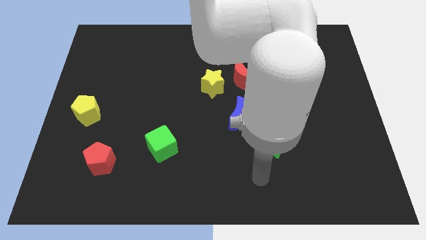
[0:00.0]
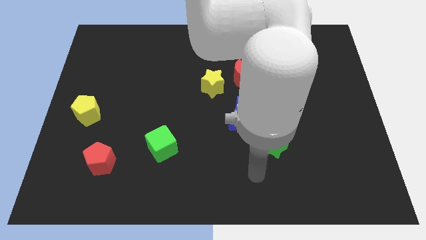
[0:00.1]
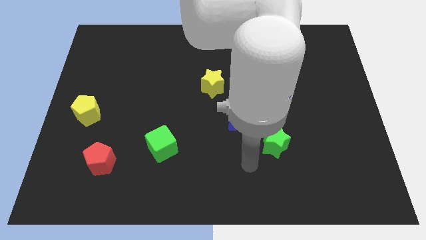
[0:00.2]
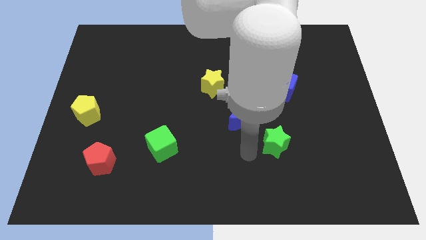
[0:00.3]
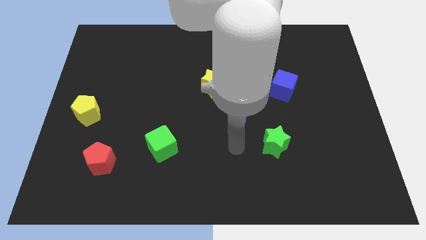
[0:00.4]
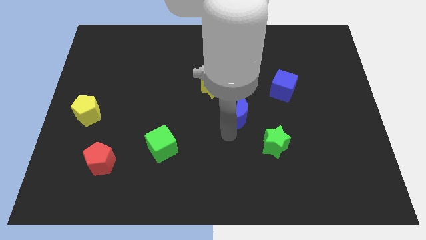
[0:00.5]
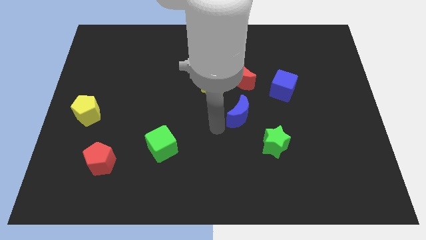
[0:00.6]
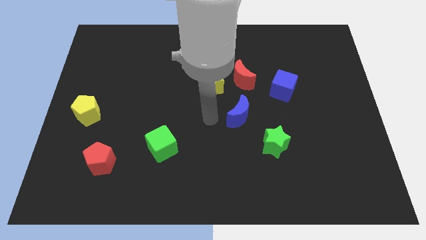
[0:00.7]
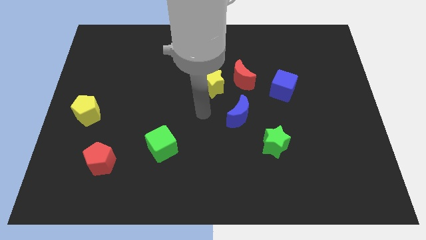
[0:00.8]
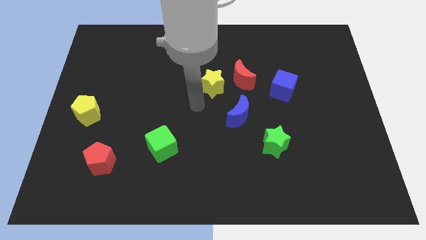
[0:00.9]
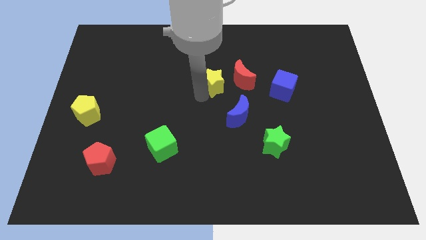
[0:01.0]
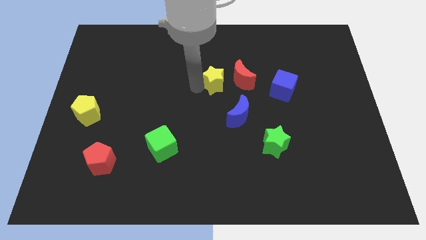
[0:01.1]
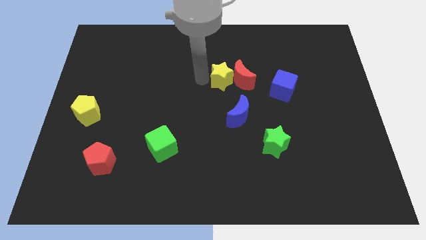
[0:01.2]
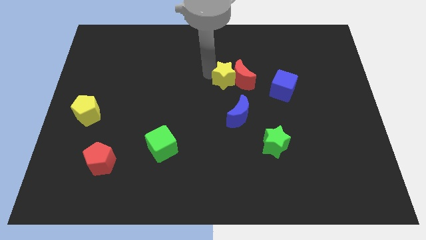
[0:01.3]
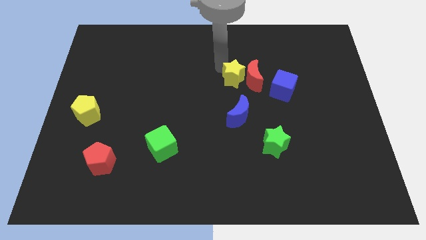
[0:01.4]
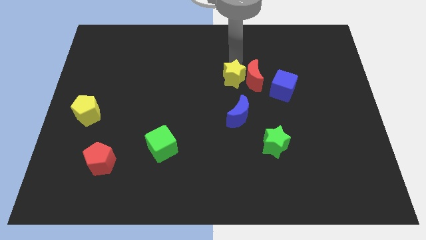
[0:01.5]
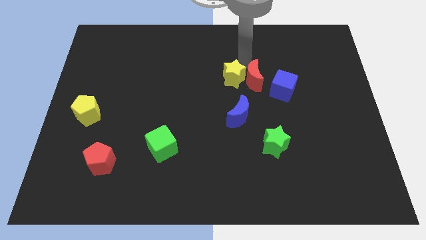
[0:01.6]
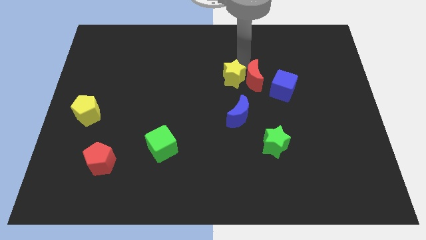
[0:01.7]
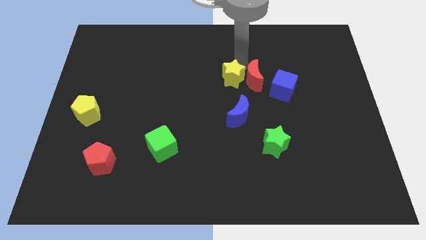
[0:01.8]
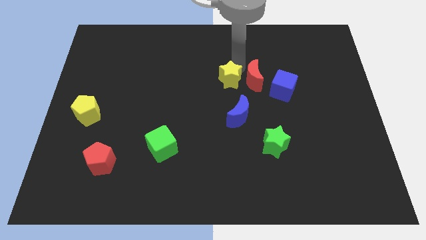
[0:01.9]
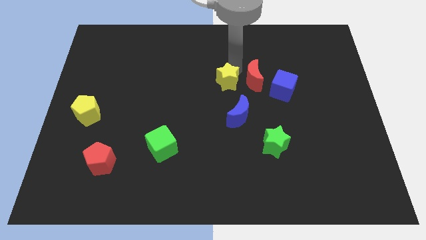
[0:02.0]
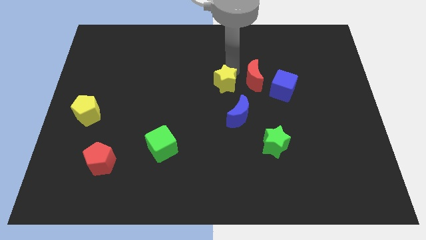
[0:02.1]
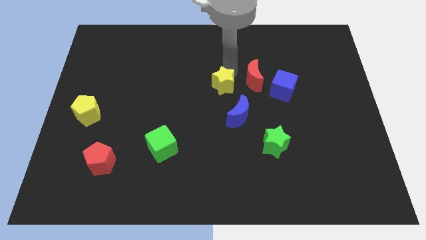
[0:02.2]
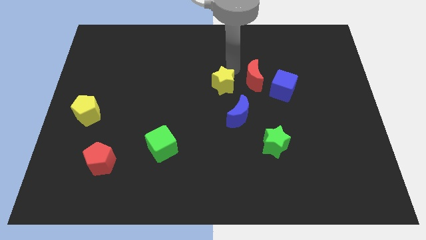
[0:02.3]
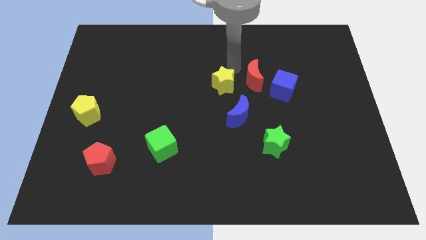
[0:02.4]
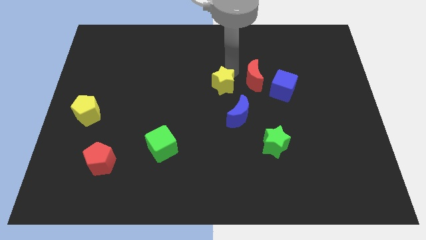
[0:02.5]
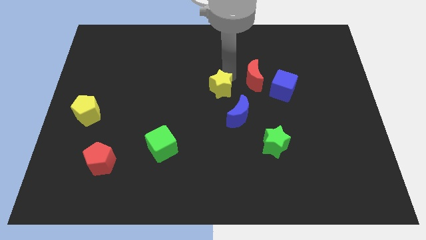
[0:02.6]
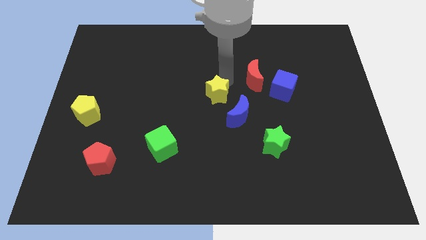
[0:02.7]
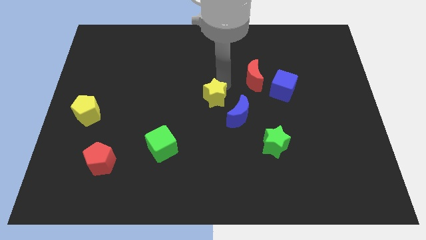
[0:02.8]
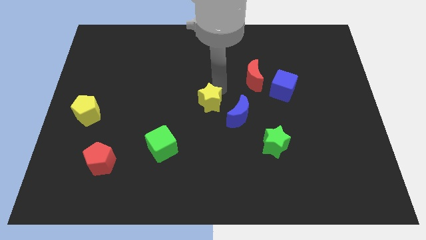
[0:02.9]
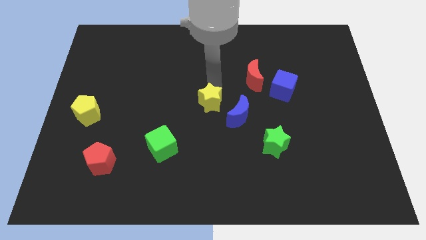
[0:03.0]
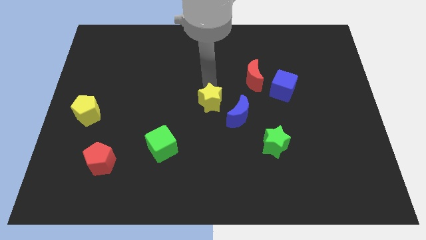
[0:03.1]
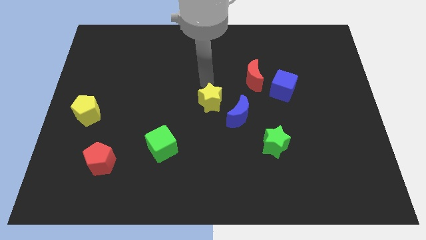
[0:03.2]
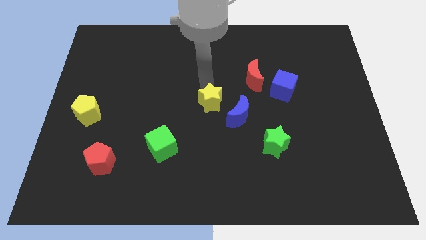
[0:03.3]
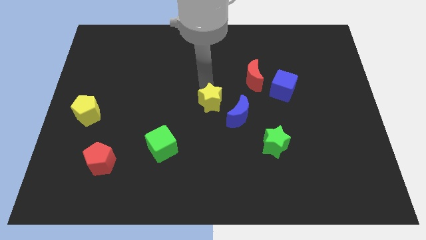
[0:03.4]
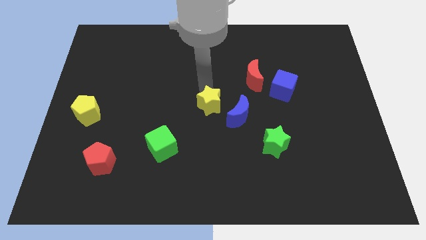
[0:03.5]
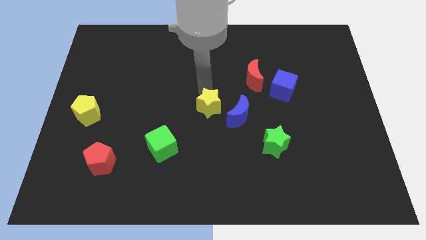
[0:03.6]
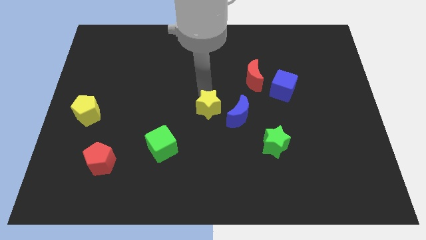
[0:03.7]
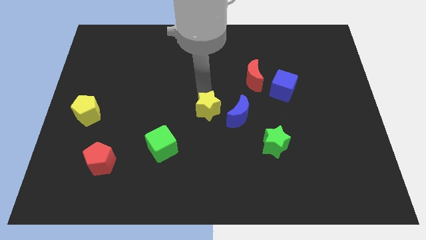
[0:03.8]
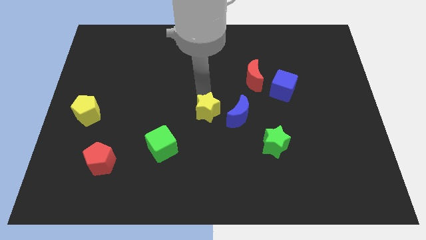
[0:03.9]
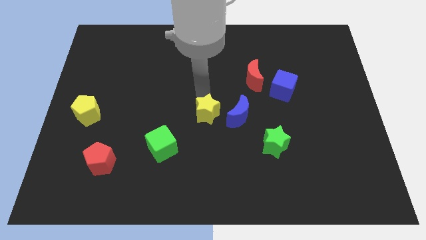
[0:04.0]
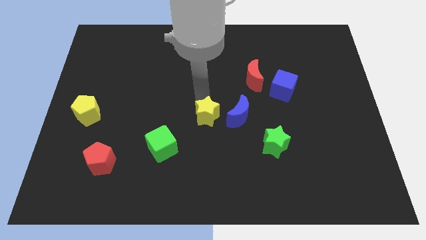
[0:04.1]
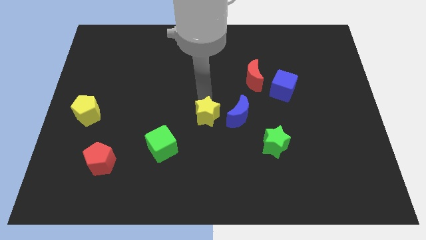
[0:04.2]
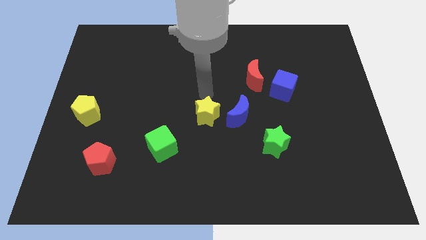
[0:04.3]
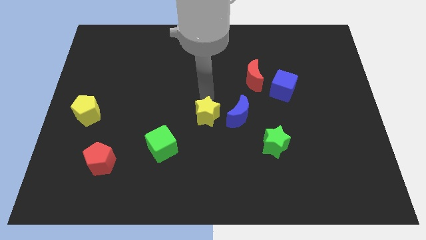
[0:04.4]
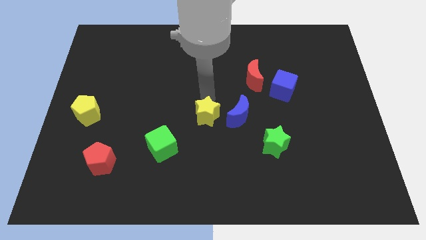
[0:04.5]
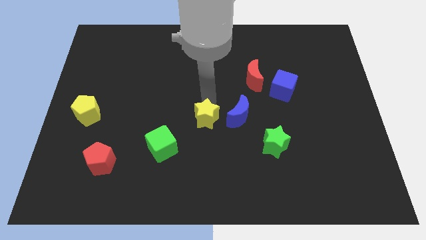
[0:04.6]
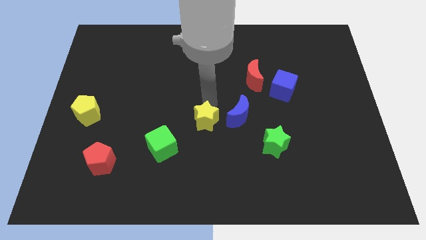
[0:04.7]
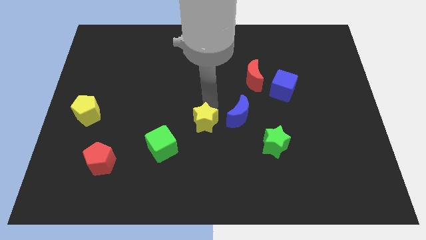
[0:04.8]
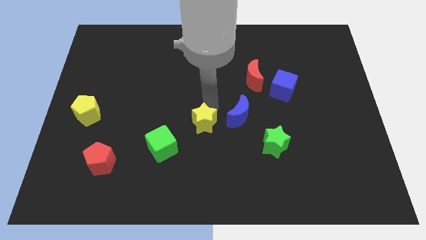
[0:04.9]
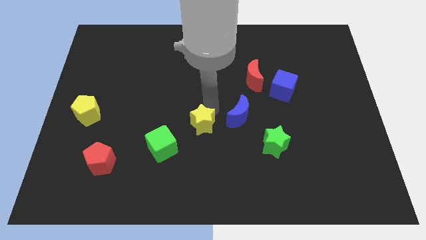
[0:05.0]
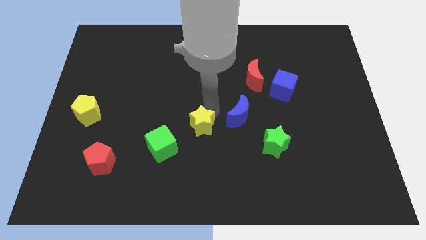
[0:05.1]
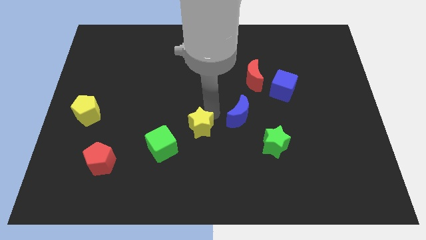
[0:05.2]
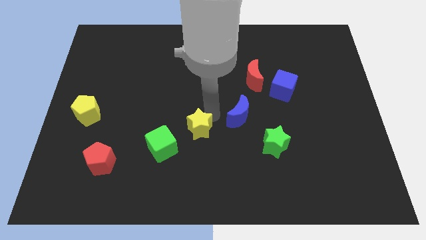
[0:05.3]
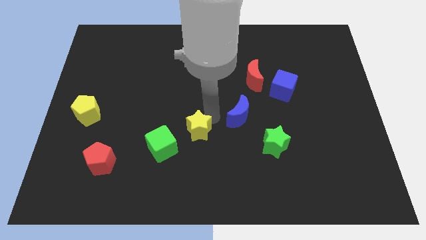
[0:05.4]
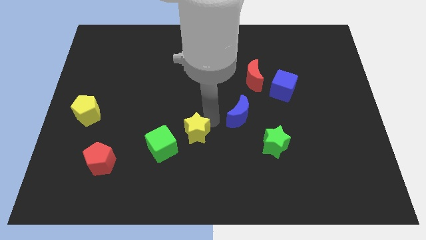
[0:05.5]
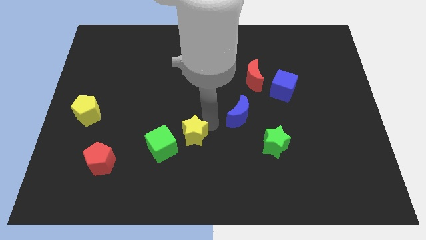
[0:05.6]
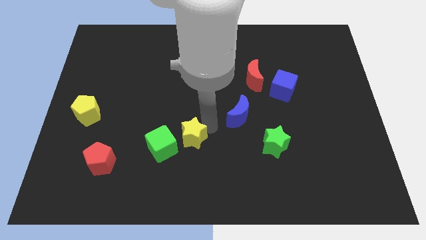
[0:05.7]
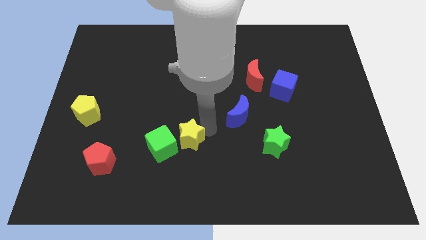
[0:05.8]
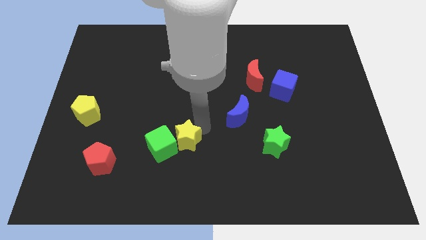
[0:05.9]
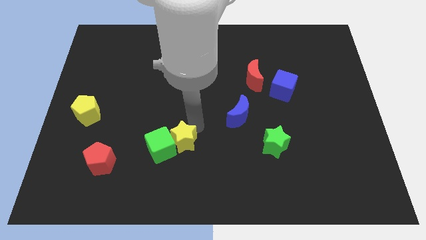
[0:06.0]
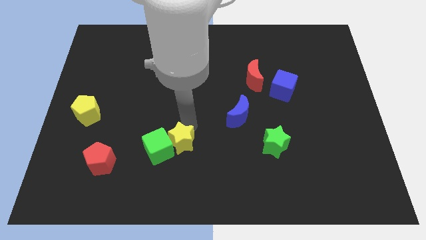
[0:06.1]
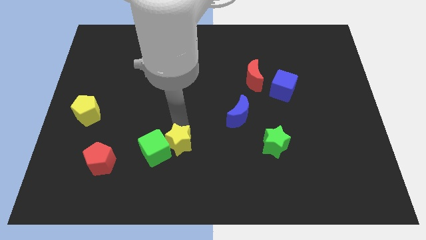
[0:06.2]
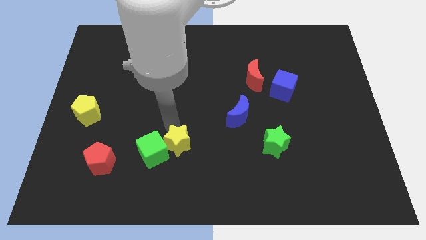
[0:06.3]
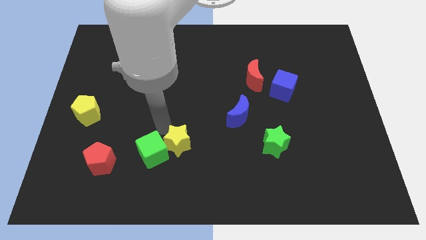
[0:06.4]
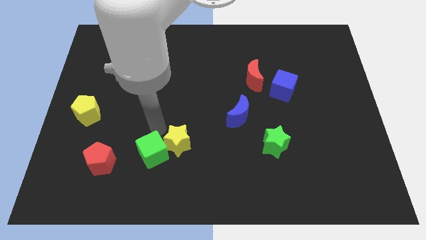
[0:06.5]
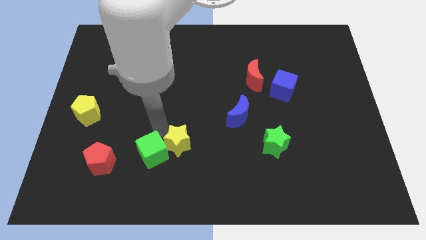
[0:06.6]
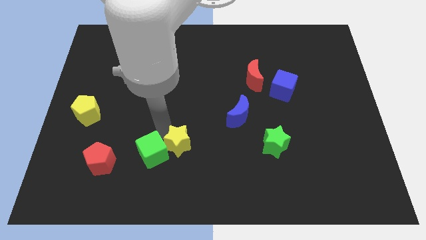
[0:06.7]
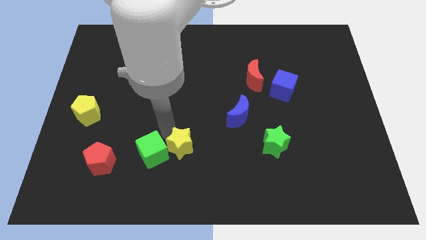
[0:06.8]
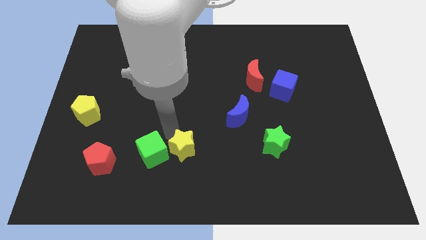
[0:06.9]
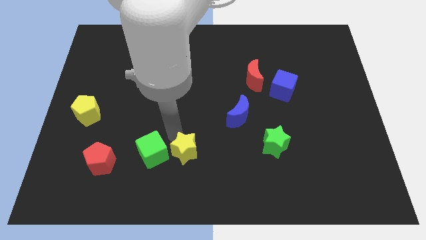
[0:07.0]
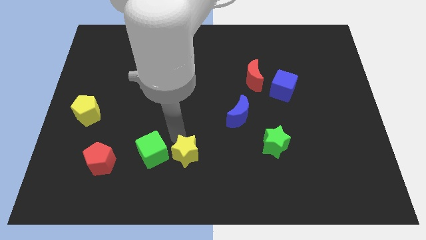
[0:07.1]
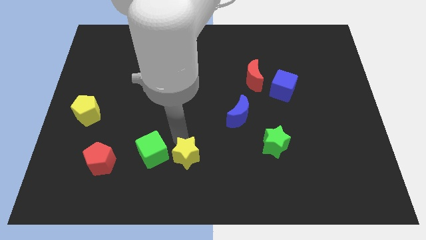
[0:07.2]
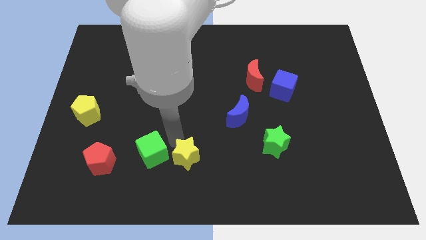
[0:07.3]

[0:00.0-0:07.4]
slide the yellow star to the bottom side

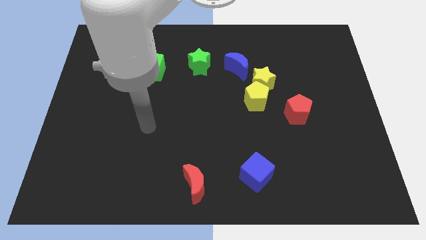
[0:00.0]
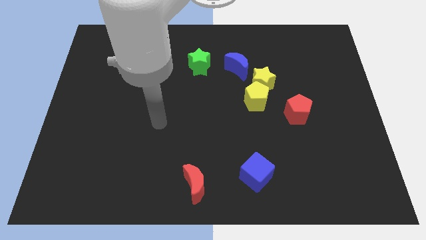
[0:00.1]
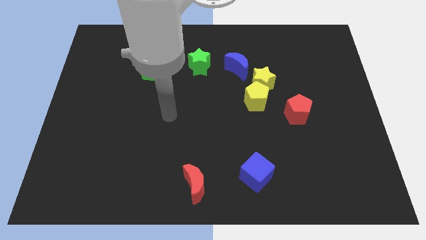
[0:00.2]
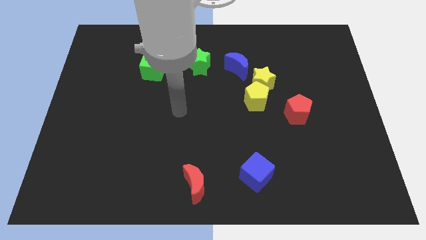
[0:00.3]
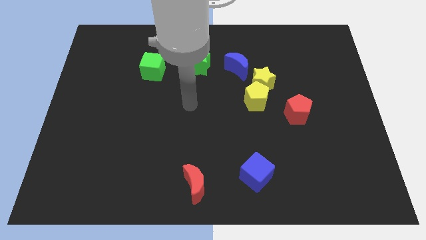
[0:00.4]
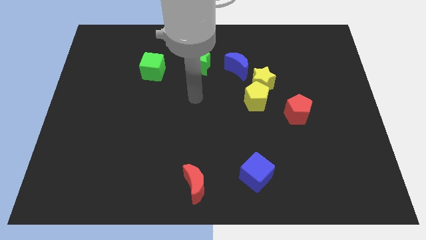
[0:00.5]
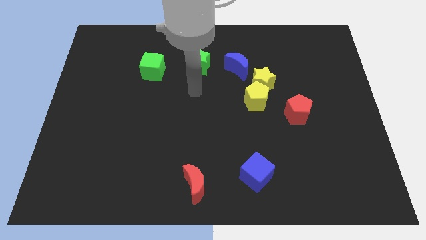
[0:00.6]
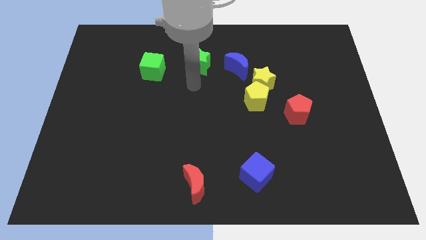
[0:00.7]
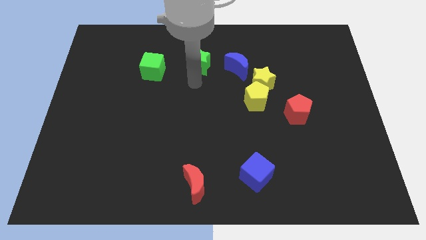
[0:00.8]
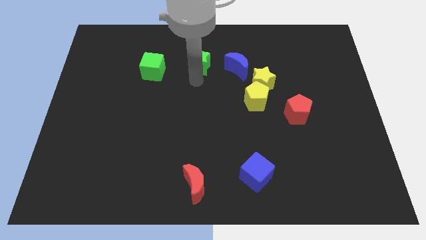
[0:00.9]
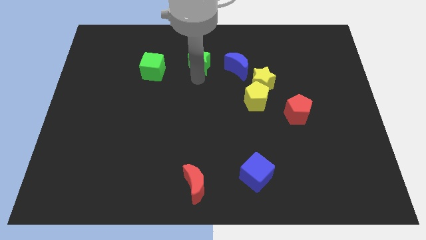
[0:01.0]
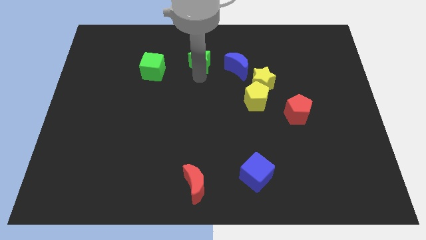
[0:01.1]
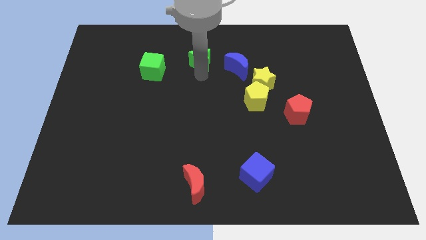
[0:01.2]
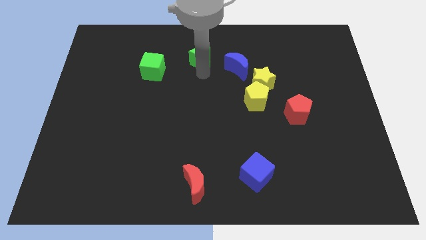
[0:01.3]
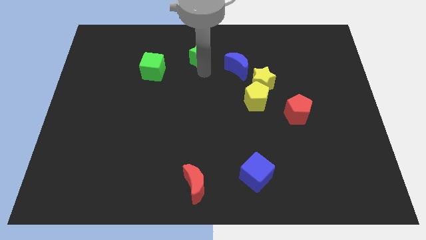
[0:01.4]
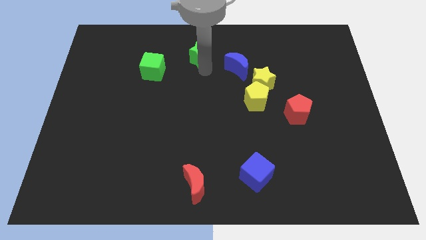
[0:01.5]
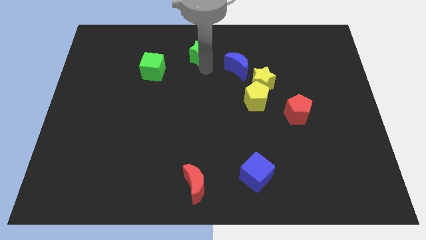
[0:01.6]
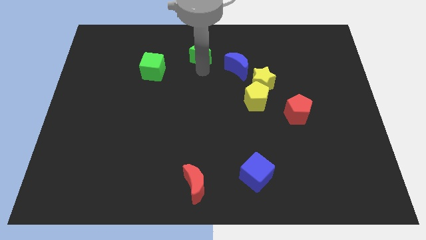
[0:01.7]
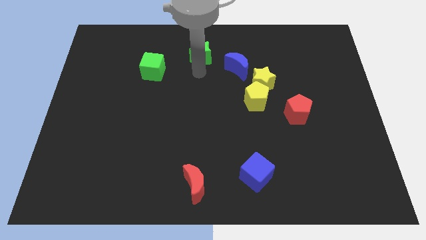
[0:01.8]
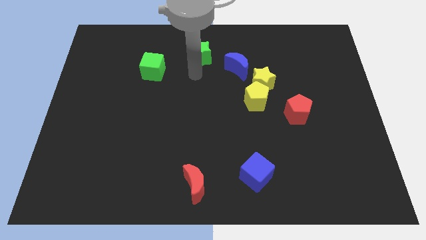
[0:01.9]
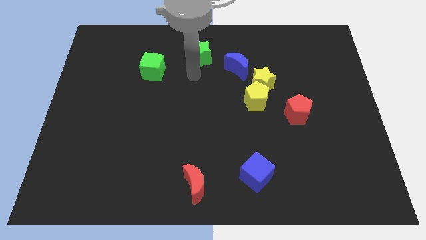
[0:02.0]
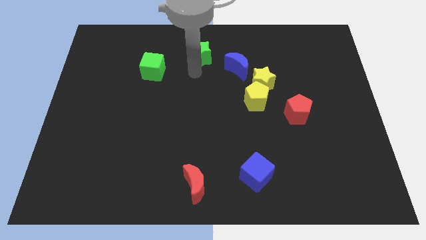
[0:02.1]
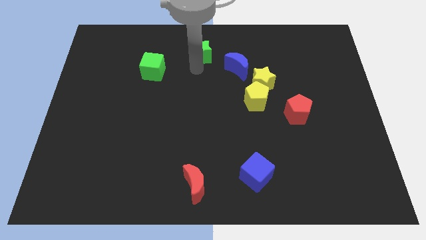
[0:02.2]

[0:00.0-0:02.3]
put the green star to the towards your base
